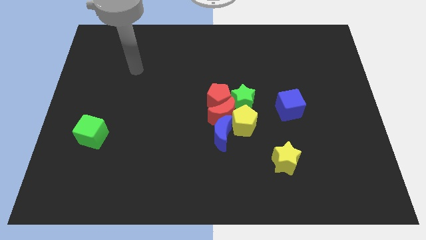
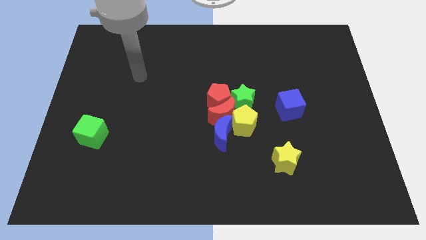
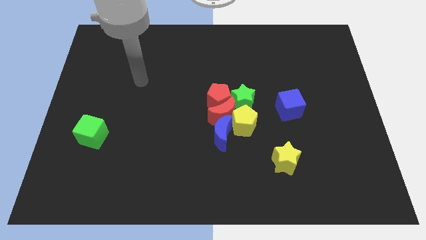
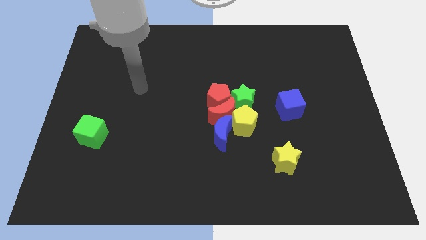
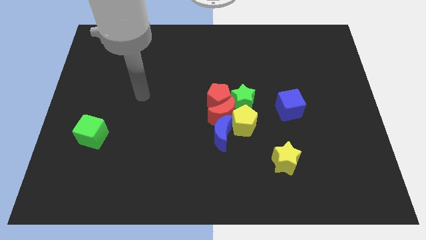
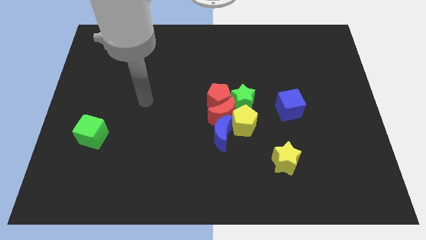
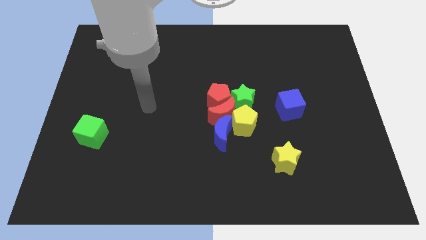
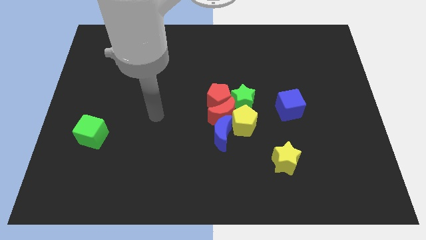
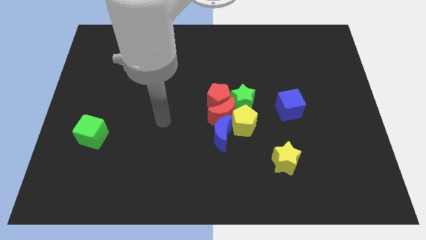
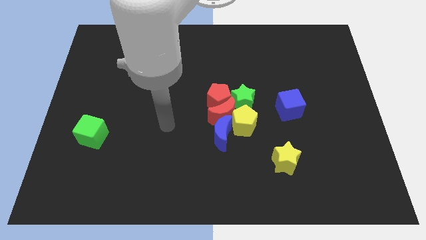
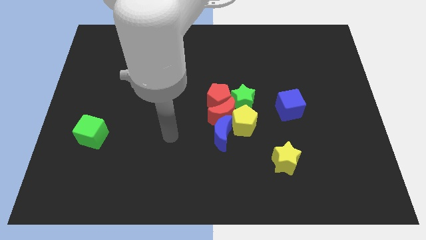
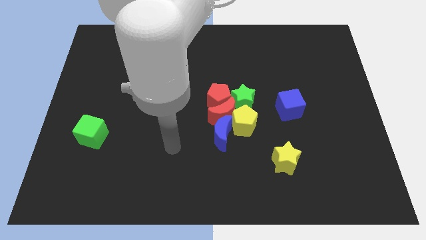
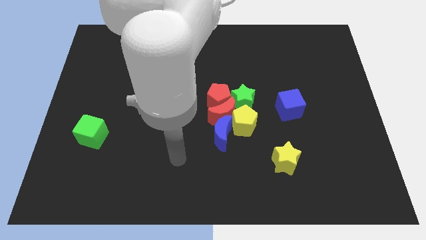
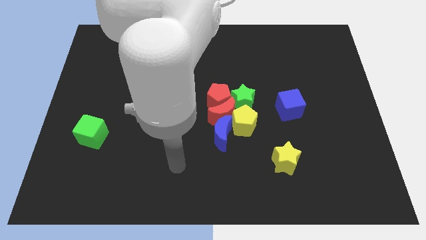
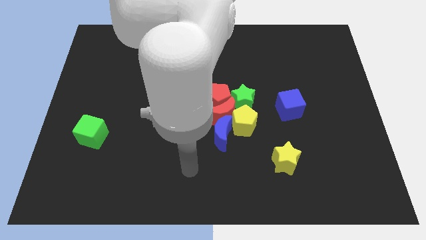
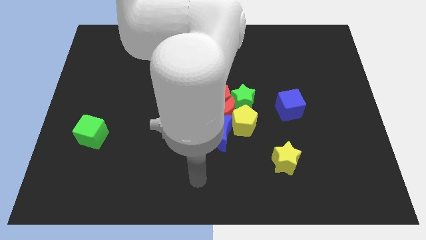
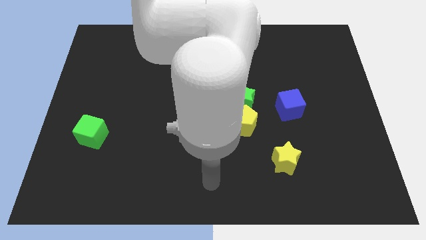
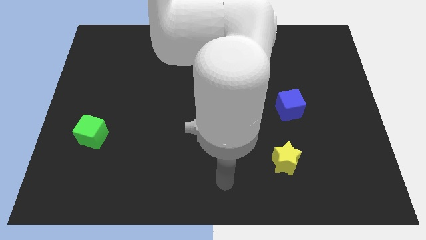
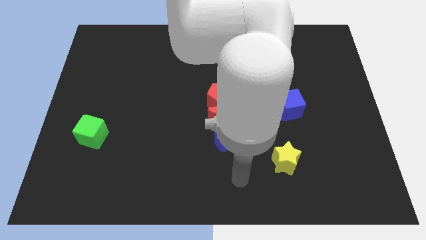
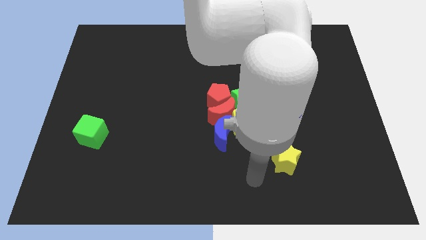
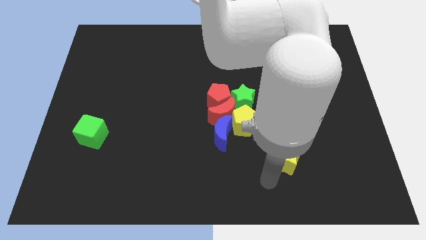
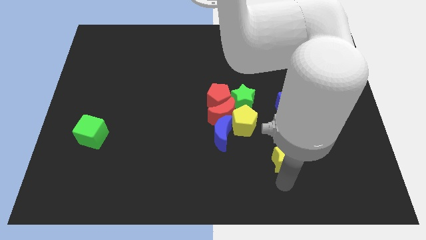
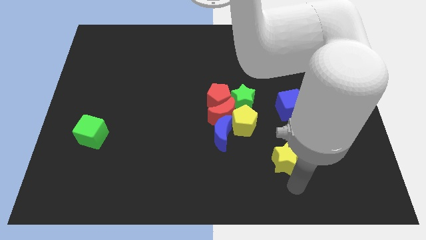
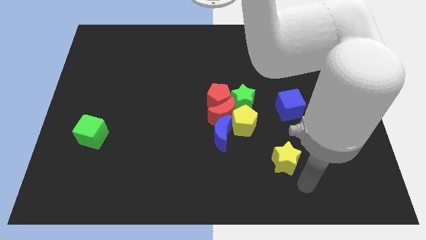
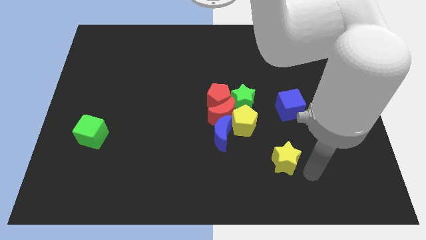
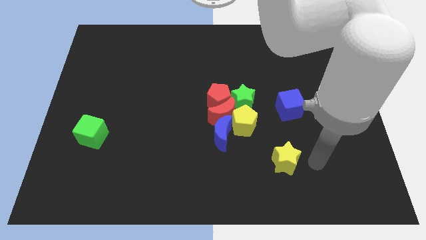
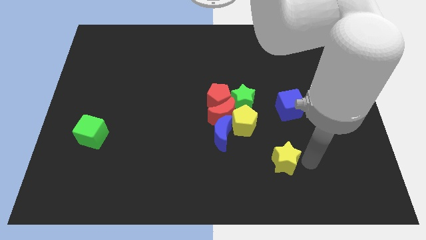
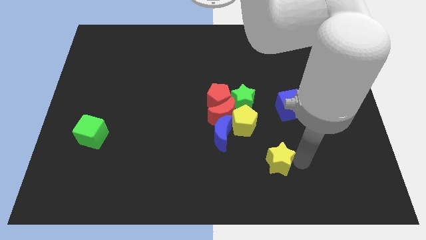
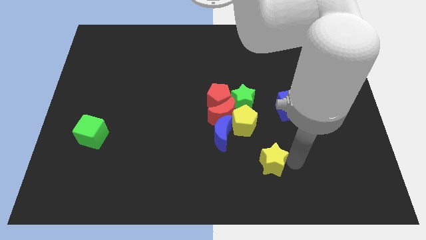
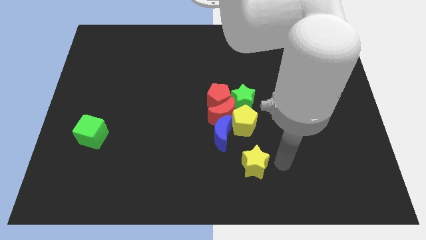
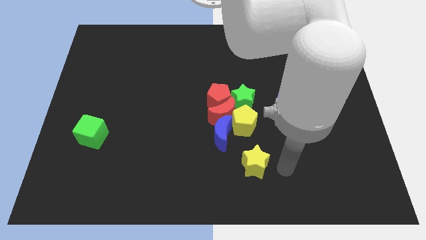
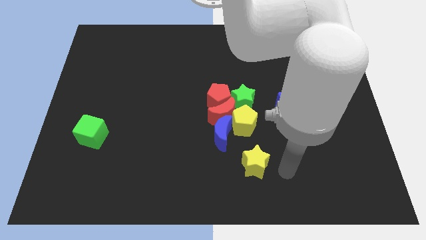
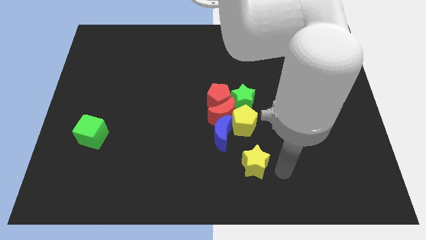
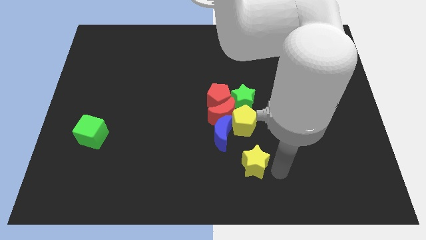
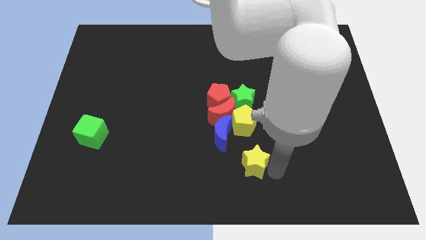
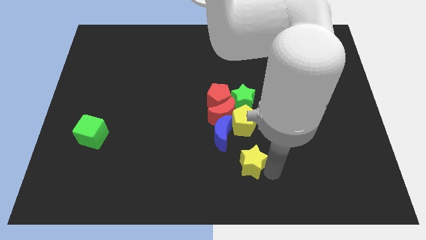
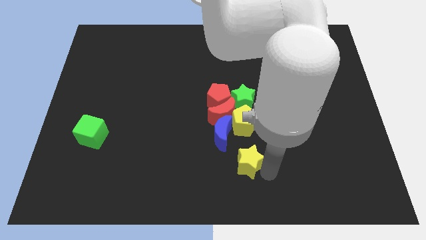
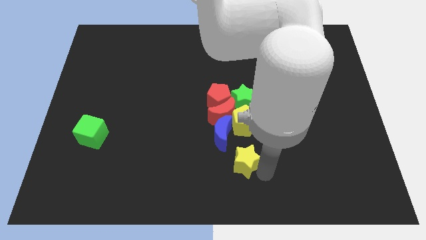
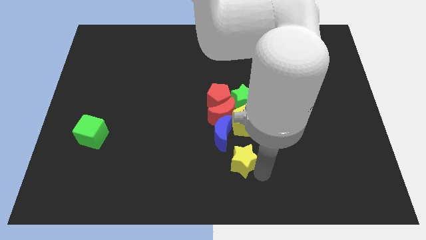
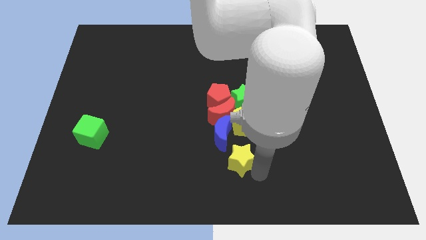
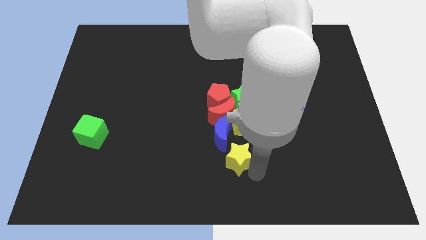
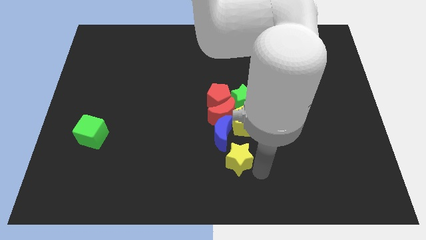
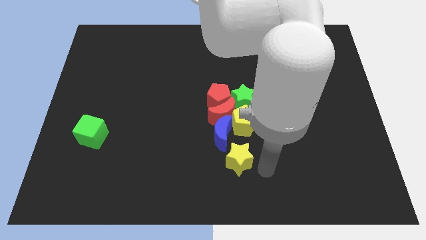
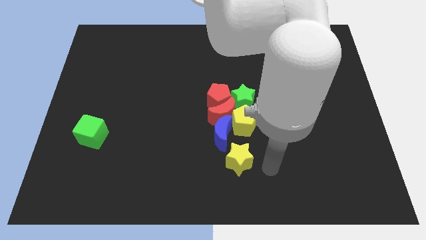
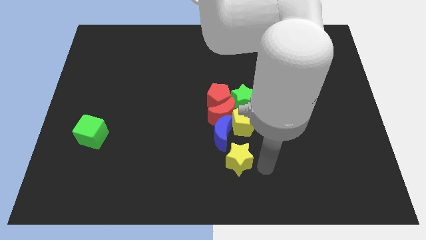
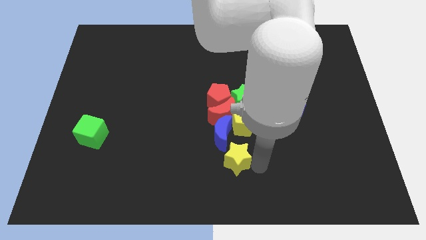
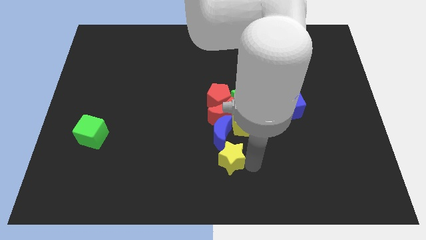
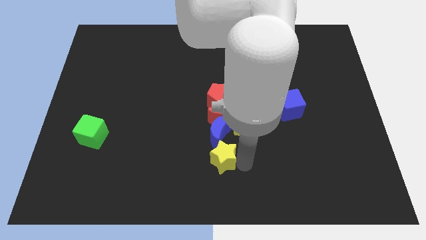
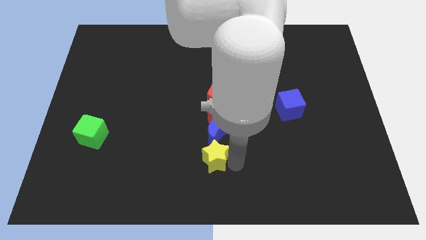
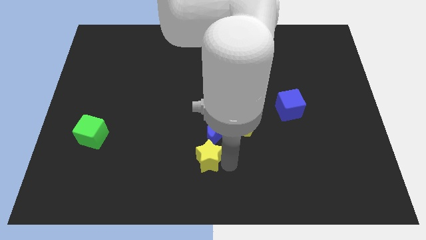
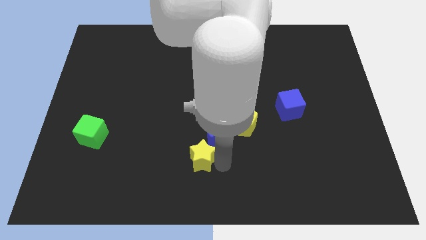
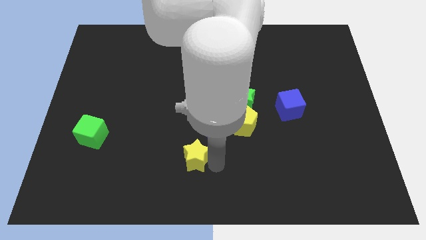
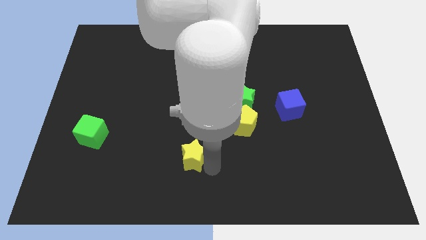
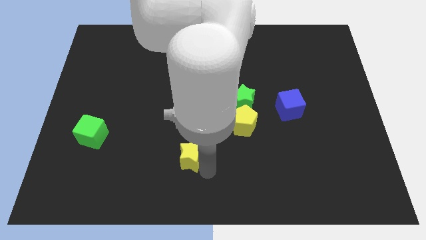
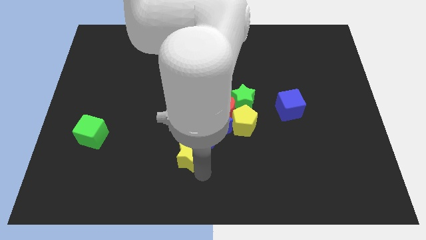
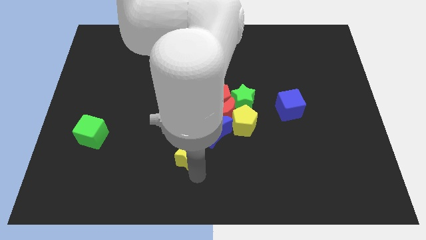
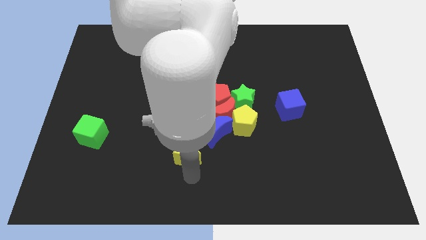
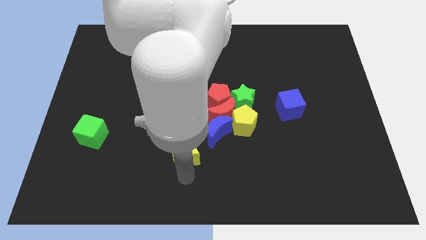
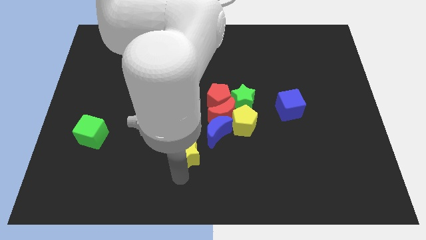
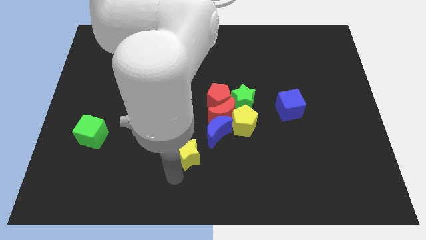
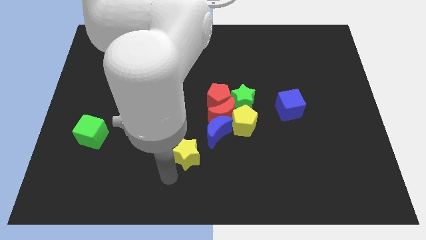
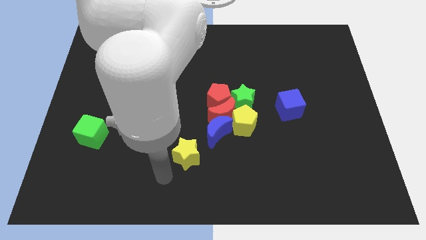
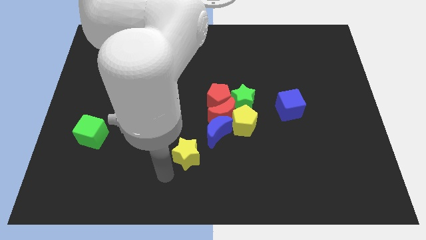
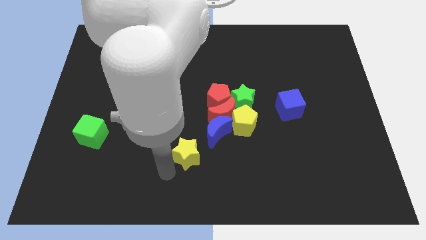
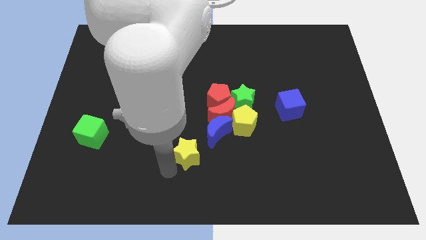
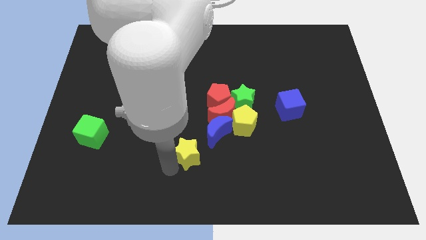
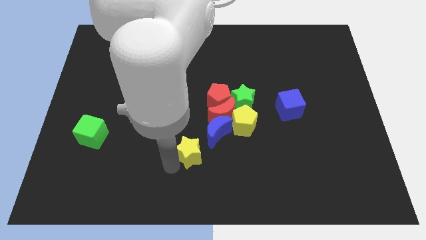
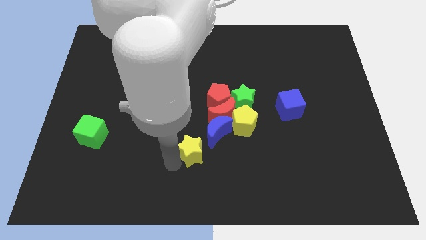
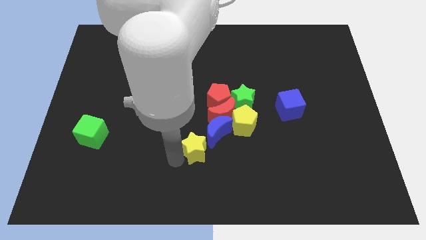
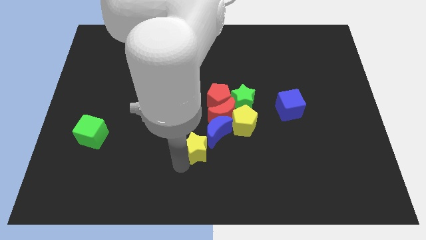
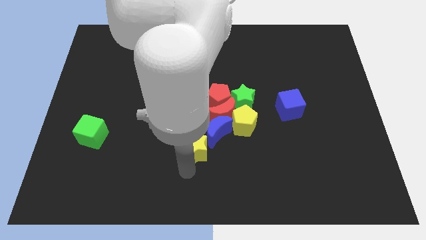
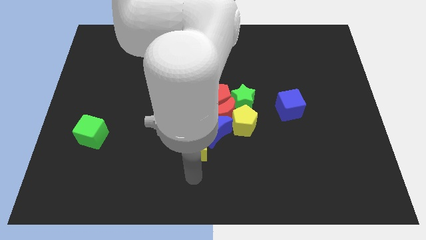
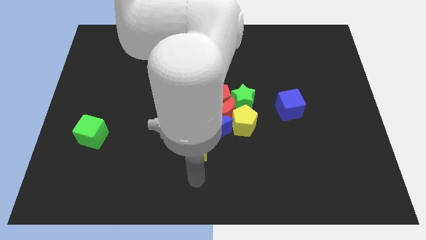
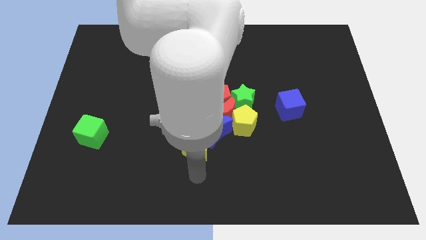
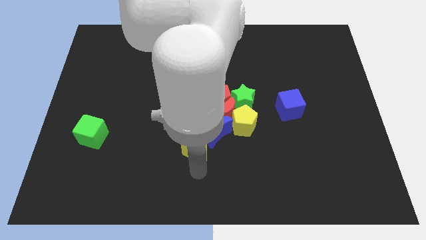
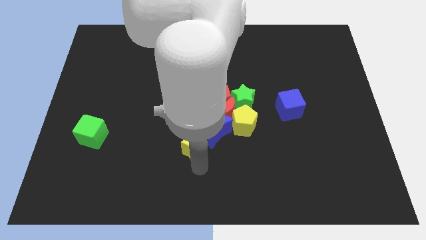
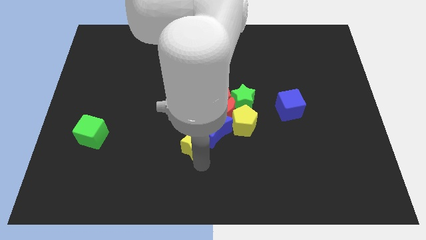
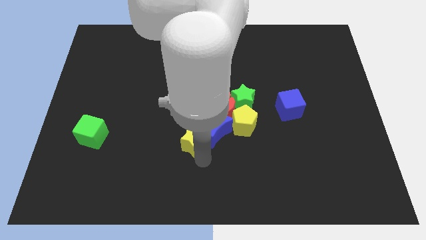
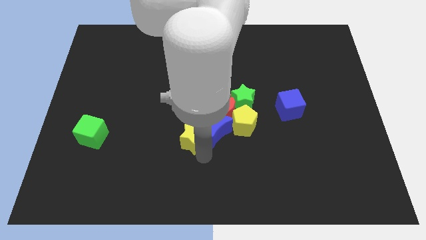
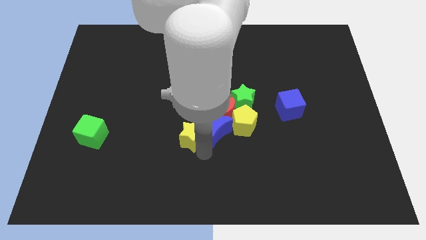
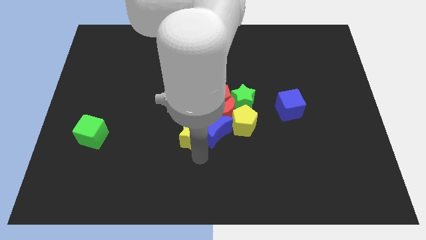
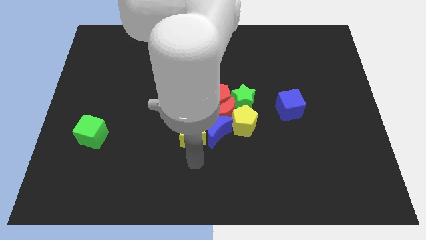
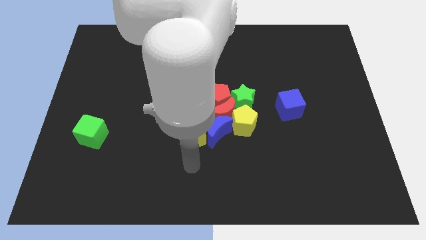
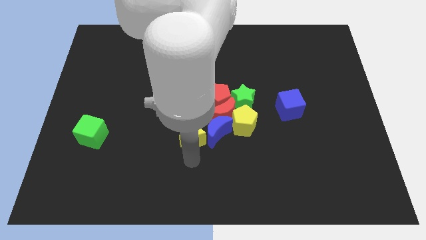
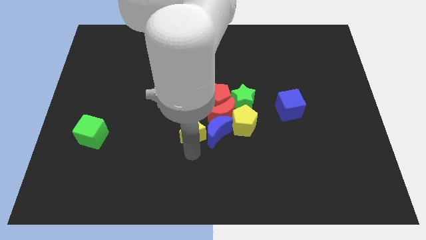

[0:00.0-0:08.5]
push the yellow star to the top left of the blue moon

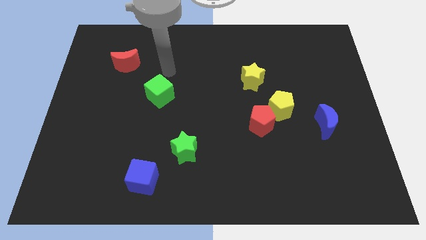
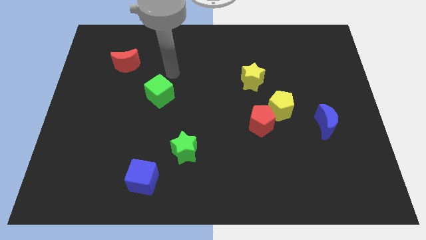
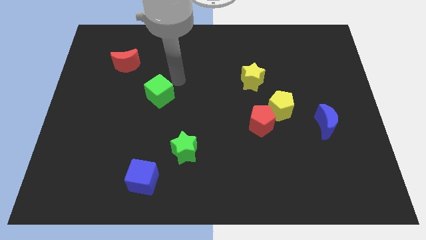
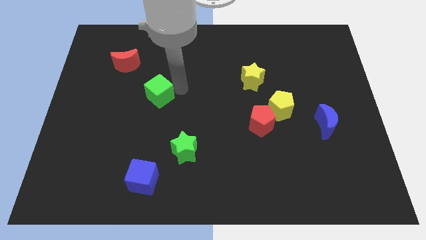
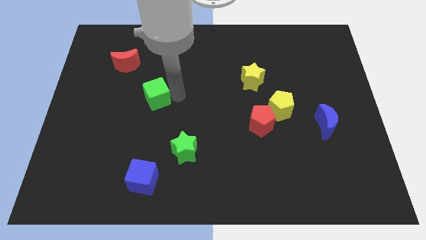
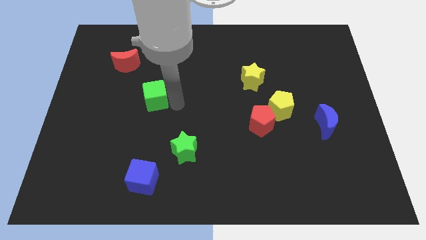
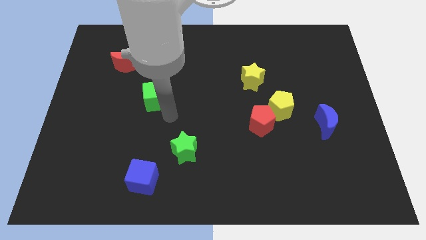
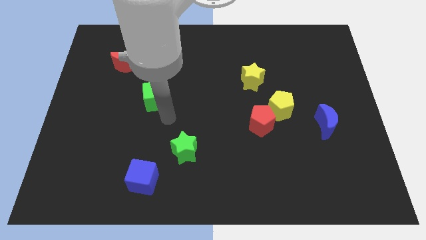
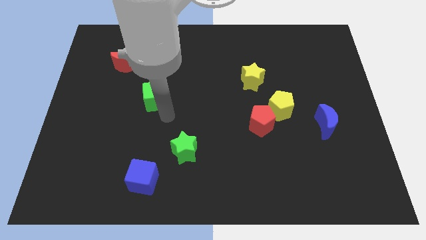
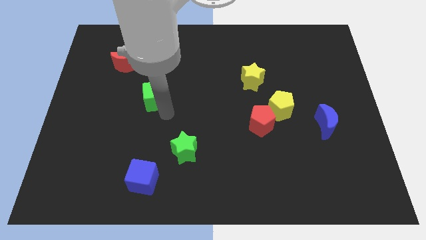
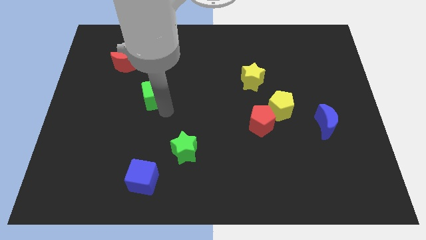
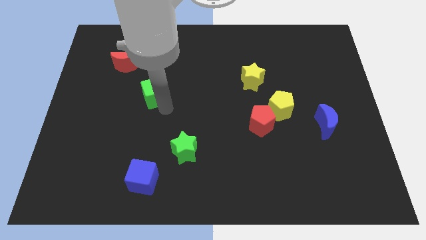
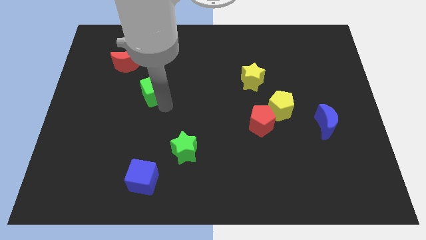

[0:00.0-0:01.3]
push the green cube diagonally down and to the right of the red moon
